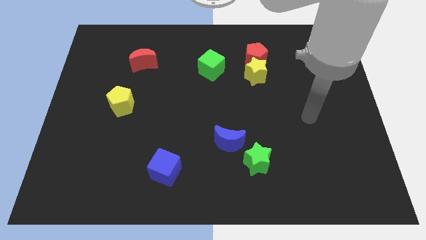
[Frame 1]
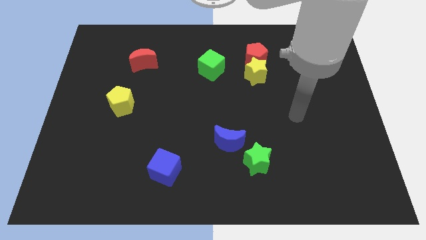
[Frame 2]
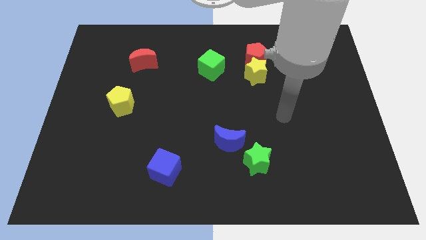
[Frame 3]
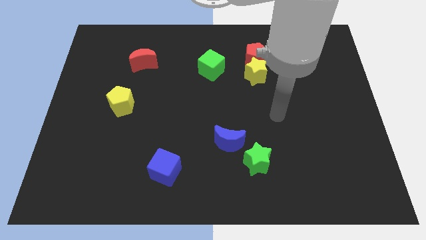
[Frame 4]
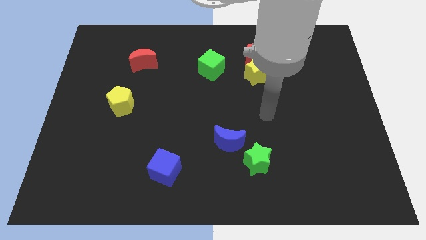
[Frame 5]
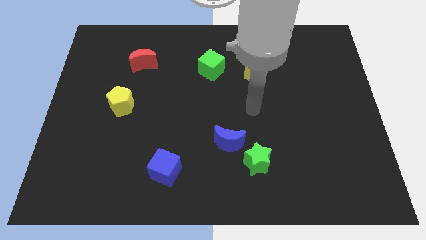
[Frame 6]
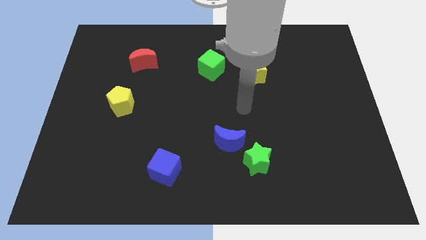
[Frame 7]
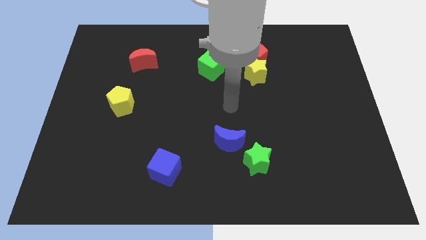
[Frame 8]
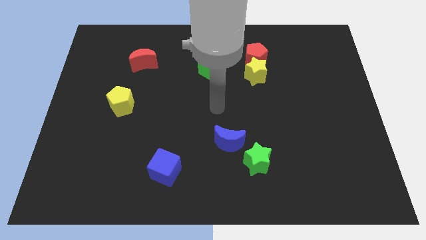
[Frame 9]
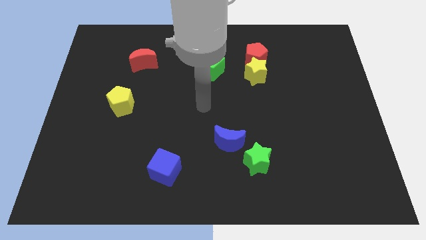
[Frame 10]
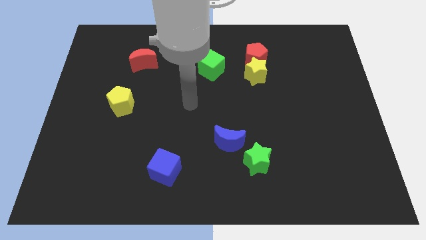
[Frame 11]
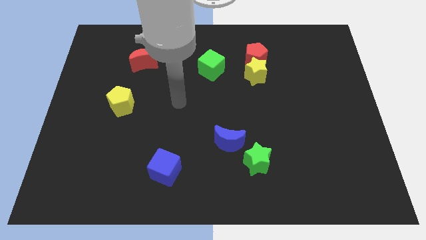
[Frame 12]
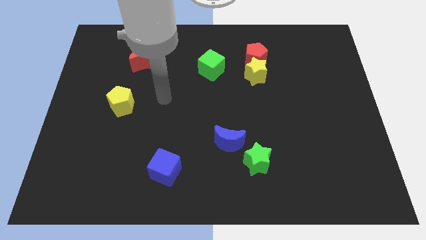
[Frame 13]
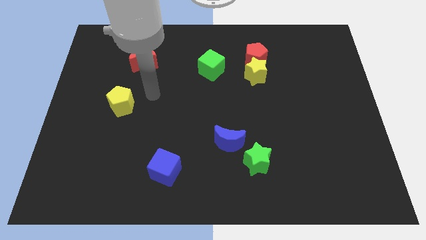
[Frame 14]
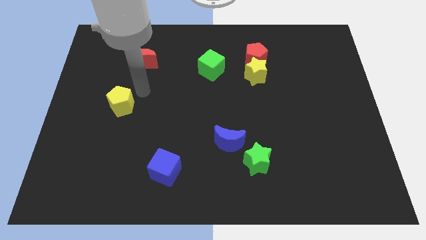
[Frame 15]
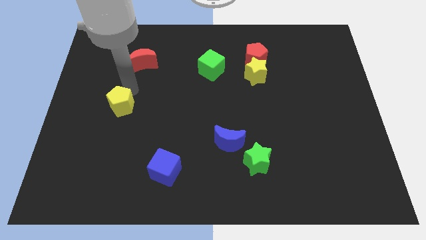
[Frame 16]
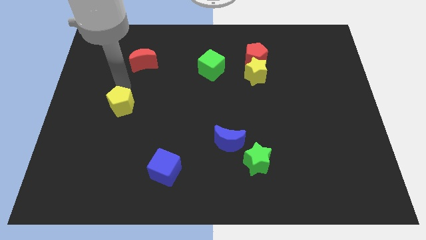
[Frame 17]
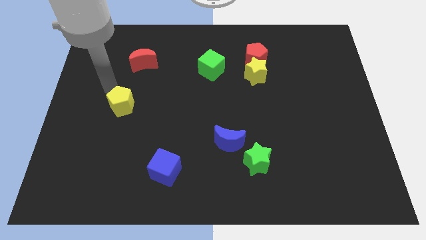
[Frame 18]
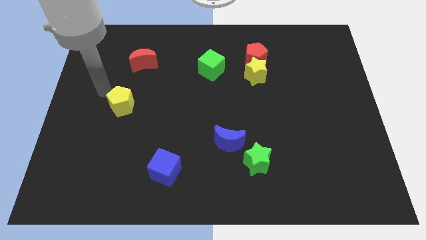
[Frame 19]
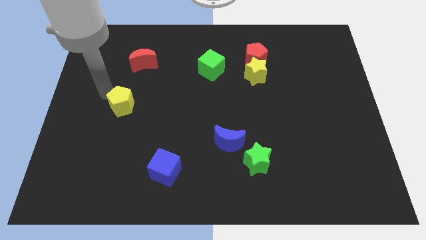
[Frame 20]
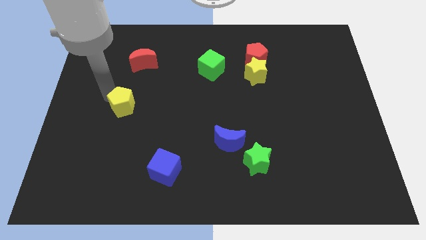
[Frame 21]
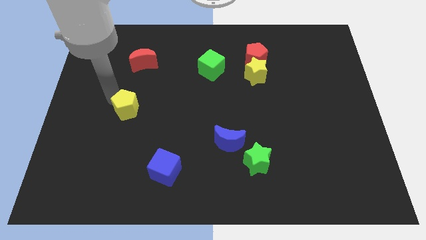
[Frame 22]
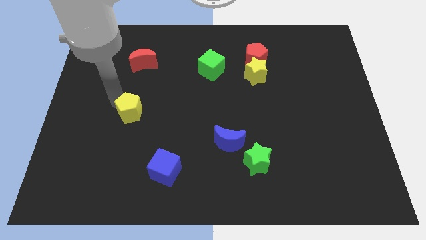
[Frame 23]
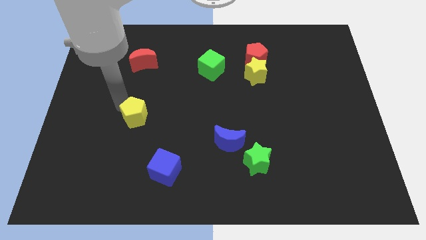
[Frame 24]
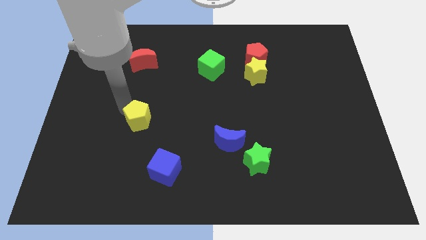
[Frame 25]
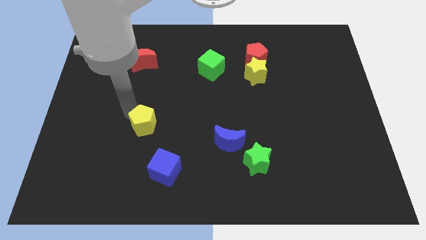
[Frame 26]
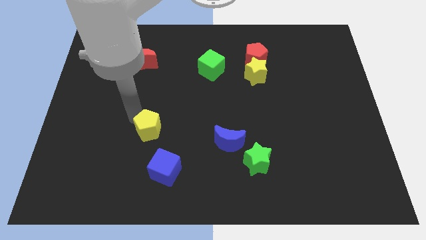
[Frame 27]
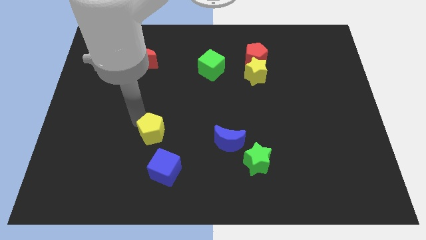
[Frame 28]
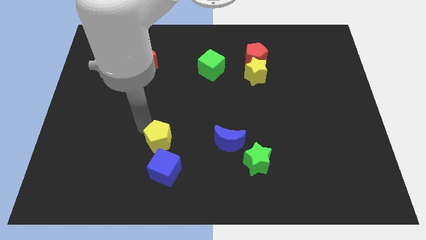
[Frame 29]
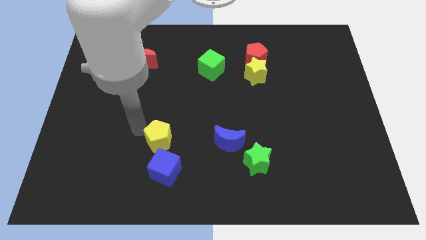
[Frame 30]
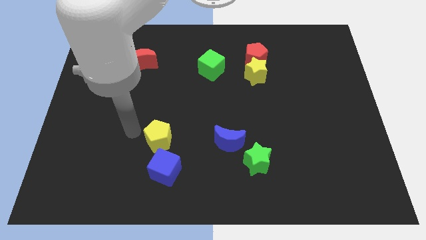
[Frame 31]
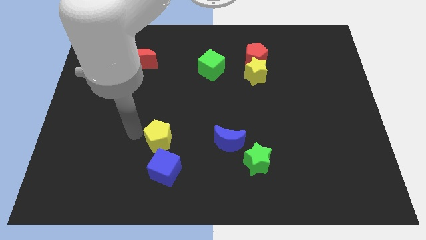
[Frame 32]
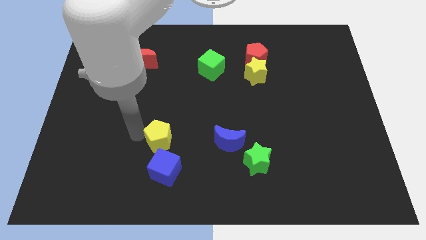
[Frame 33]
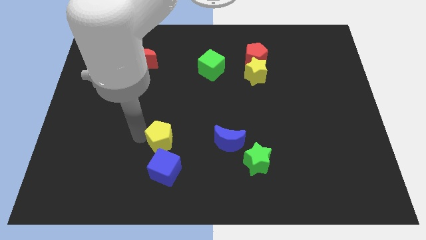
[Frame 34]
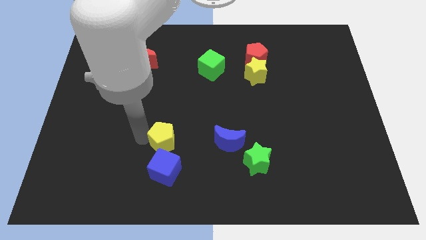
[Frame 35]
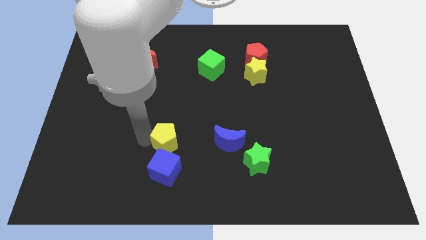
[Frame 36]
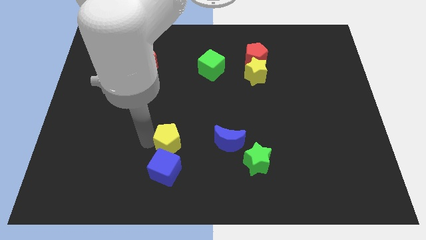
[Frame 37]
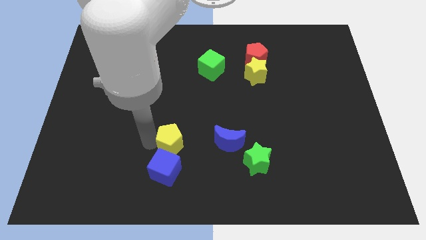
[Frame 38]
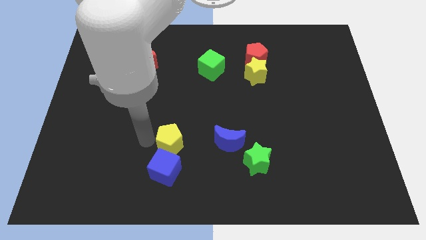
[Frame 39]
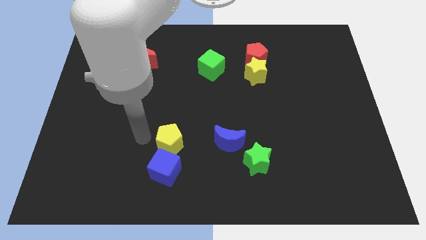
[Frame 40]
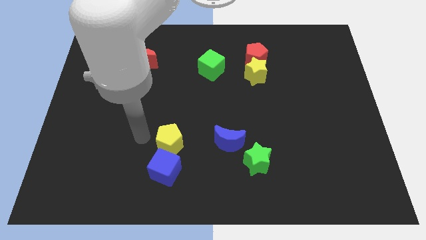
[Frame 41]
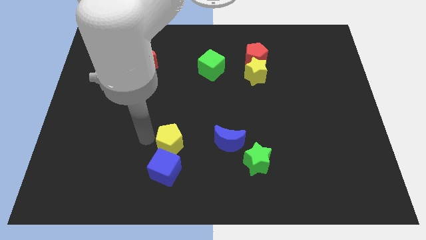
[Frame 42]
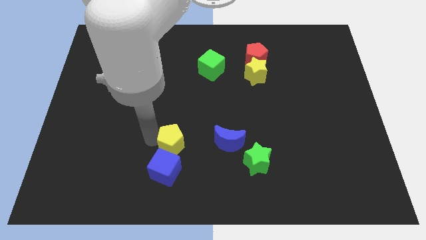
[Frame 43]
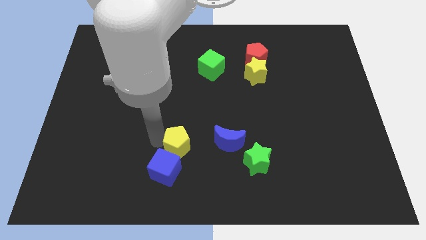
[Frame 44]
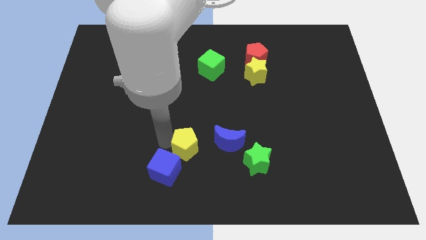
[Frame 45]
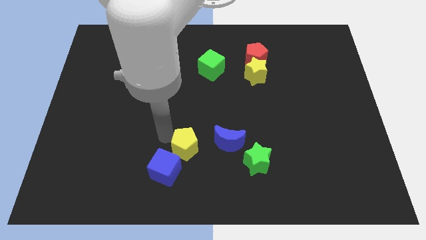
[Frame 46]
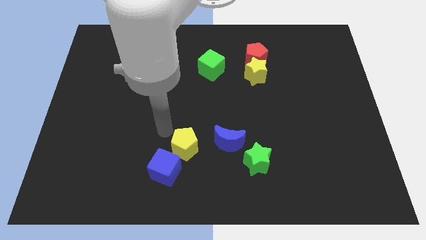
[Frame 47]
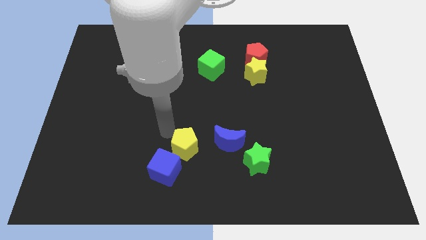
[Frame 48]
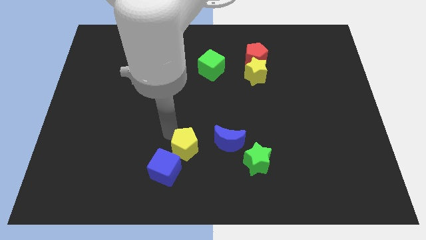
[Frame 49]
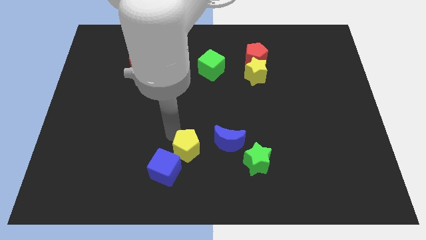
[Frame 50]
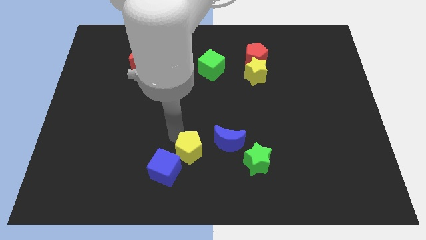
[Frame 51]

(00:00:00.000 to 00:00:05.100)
push the yellow pentagon to the bottom left side of the blue moon

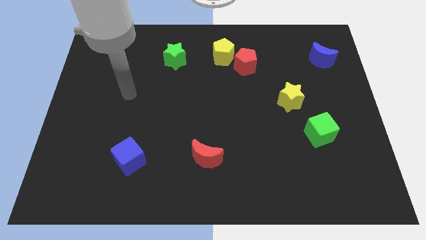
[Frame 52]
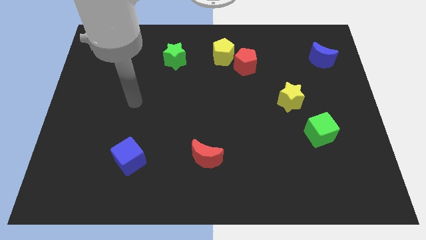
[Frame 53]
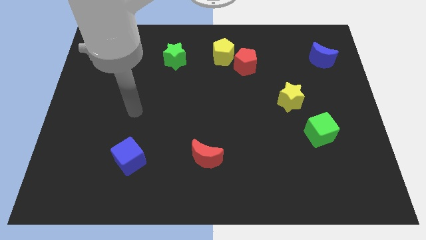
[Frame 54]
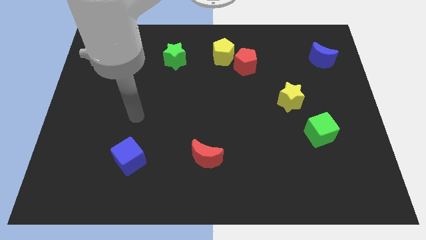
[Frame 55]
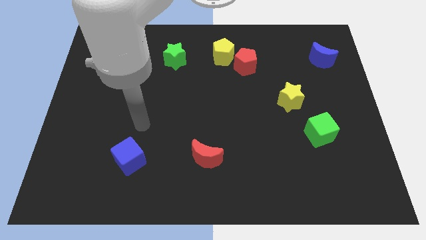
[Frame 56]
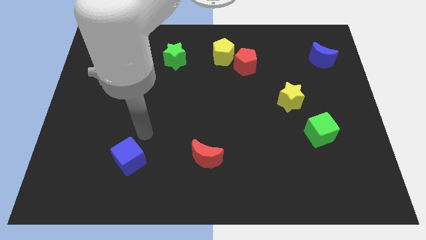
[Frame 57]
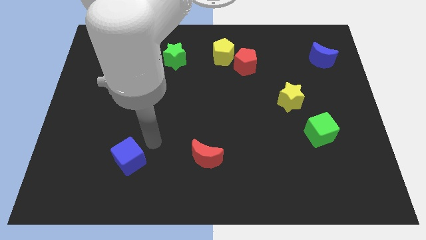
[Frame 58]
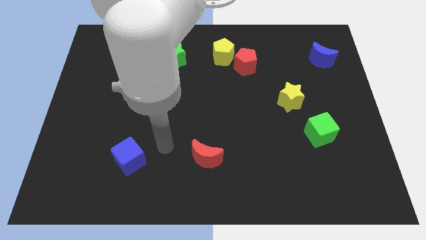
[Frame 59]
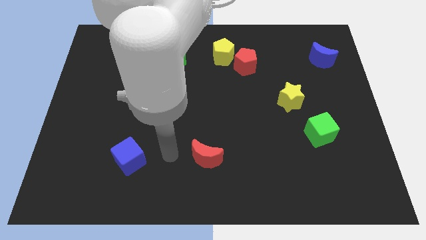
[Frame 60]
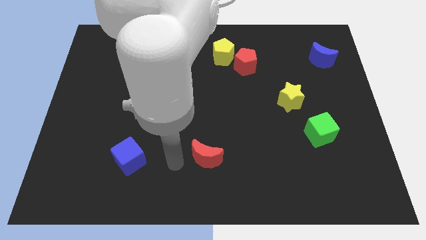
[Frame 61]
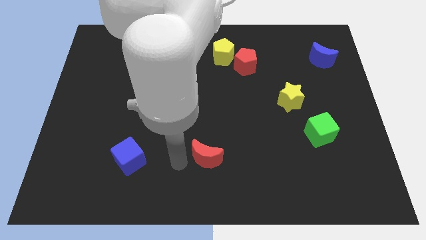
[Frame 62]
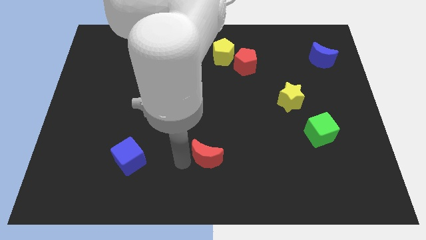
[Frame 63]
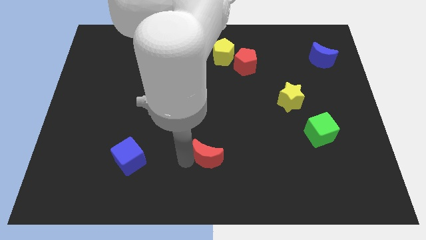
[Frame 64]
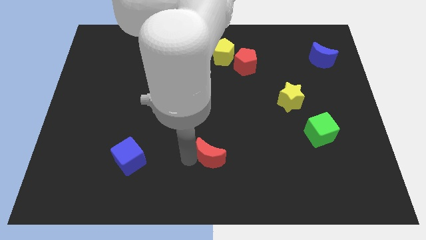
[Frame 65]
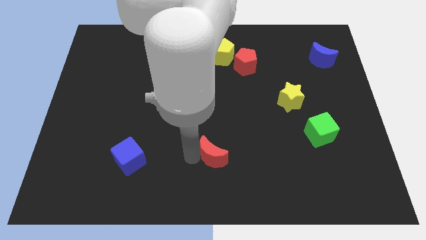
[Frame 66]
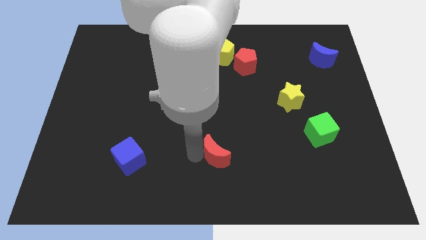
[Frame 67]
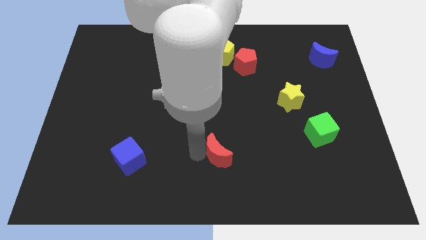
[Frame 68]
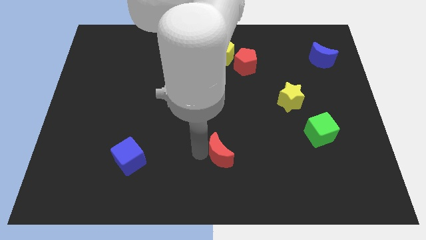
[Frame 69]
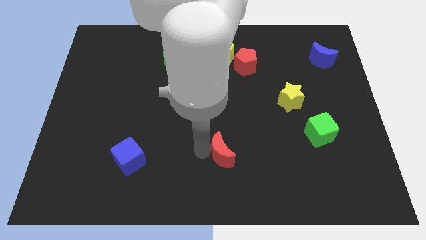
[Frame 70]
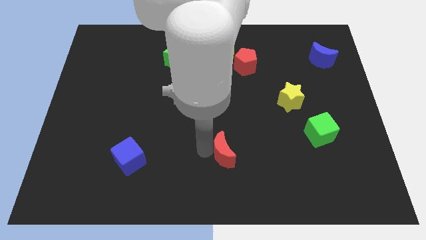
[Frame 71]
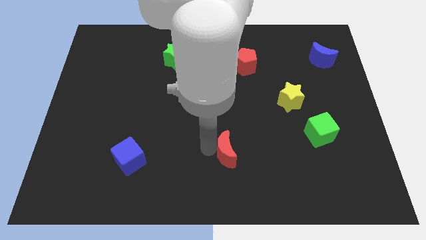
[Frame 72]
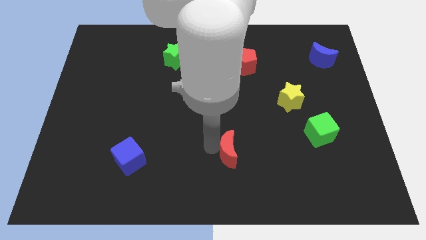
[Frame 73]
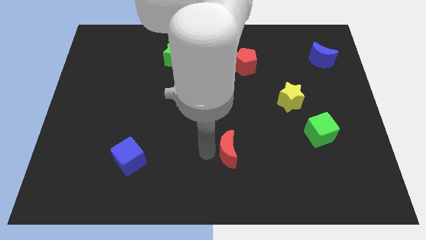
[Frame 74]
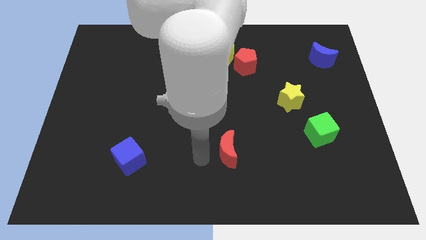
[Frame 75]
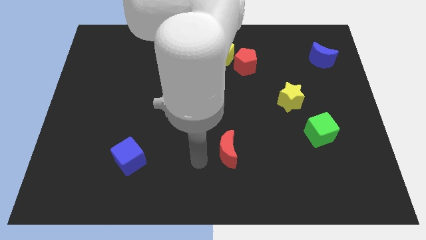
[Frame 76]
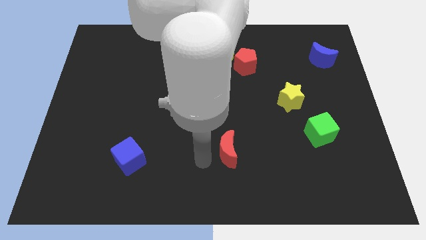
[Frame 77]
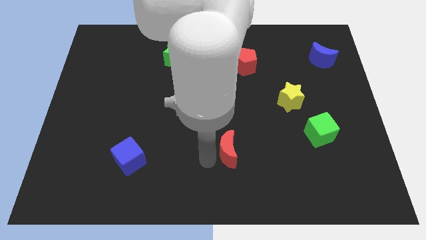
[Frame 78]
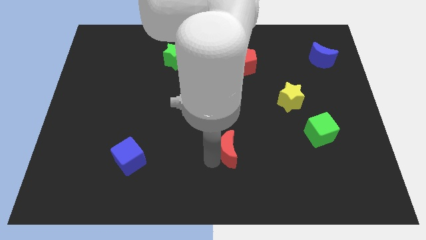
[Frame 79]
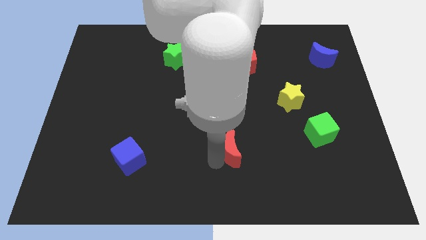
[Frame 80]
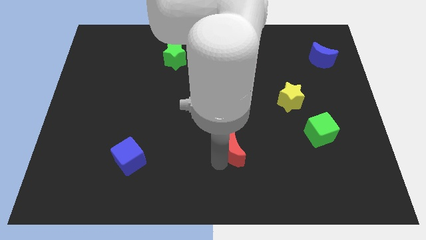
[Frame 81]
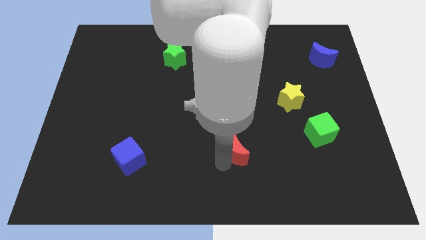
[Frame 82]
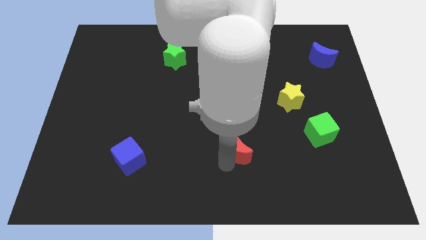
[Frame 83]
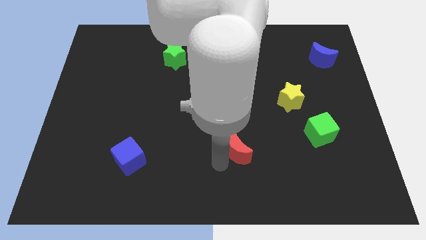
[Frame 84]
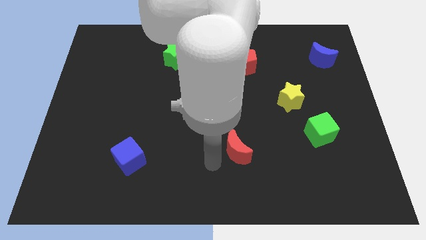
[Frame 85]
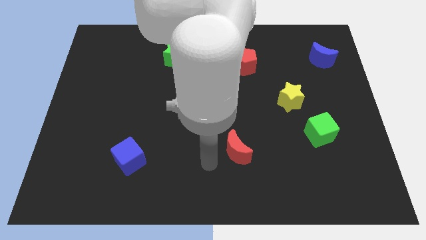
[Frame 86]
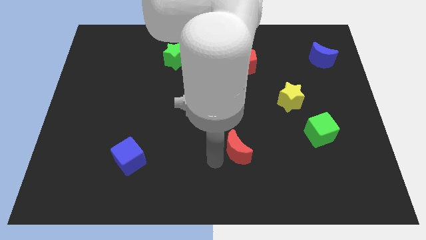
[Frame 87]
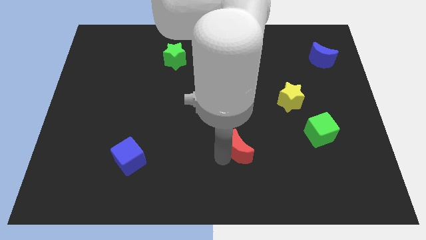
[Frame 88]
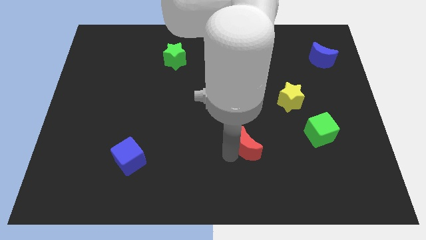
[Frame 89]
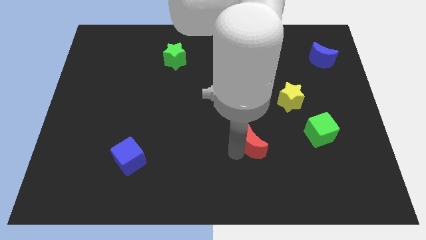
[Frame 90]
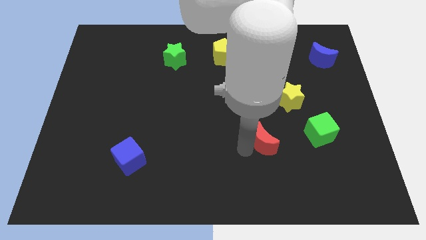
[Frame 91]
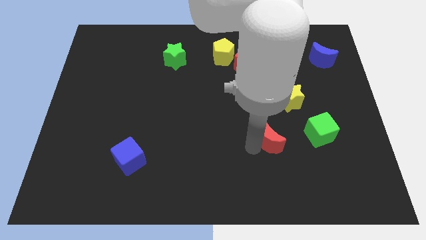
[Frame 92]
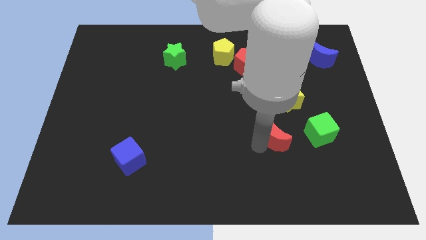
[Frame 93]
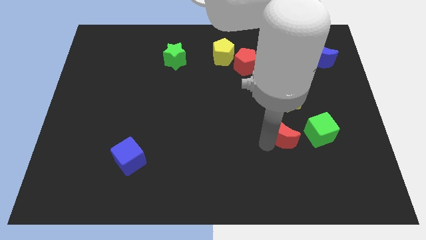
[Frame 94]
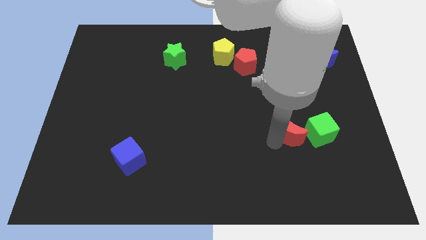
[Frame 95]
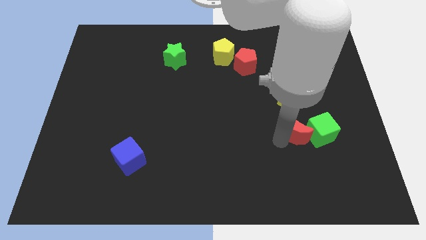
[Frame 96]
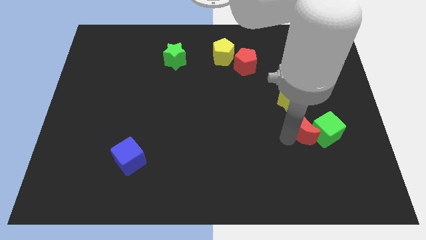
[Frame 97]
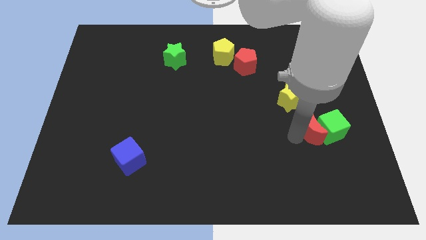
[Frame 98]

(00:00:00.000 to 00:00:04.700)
slide the red moon diagonally down and to the right of the yellow star
